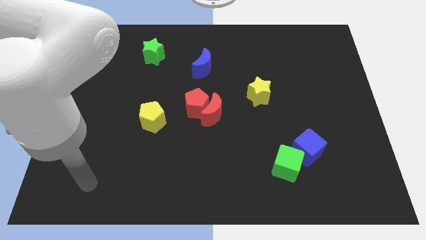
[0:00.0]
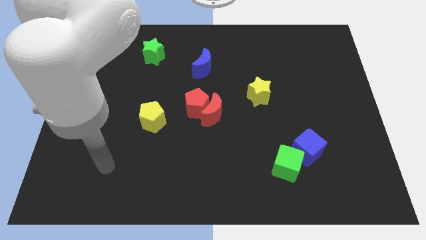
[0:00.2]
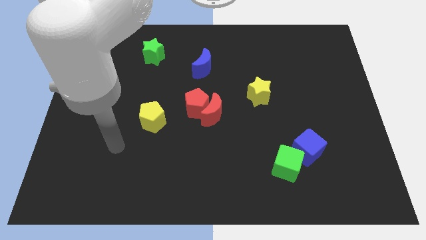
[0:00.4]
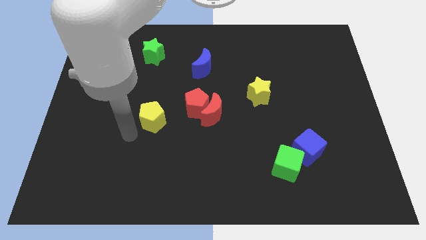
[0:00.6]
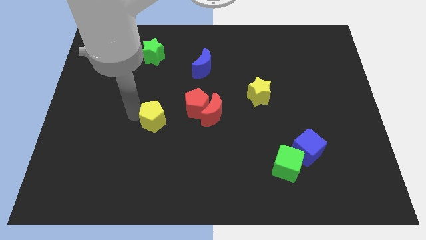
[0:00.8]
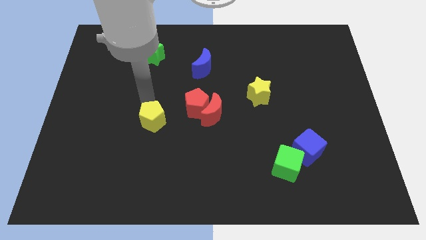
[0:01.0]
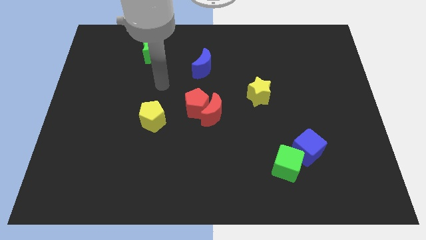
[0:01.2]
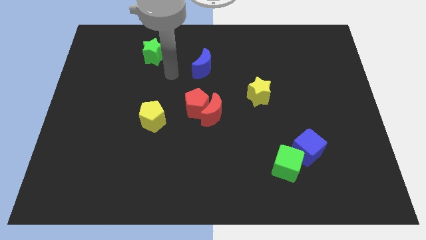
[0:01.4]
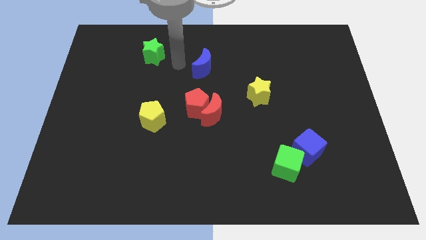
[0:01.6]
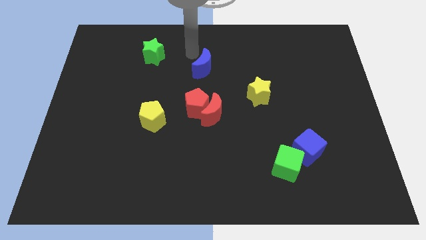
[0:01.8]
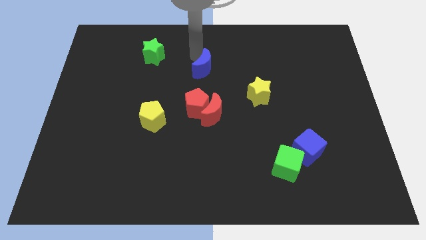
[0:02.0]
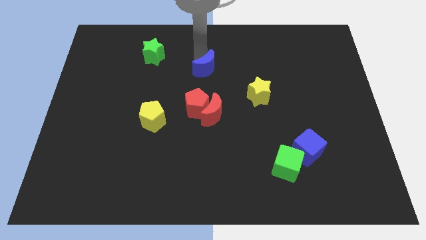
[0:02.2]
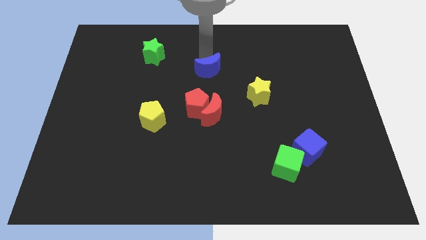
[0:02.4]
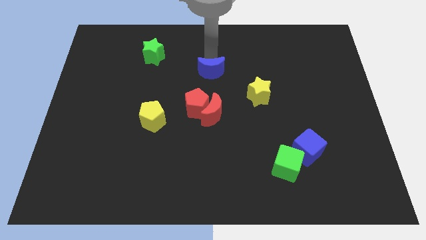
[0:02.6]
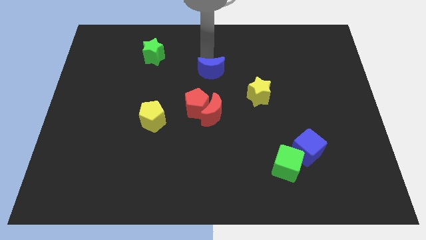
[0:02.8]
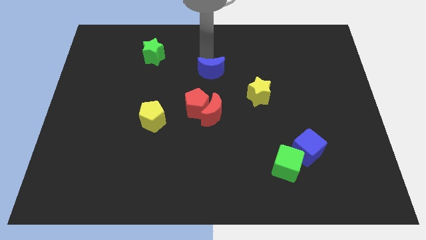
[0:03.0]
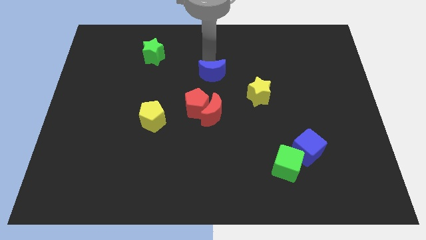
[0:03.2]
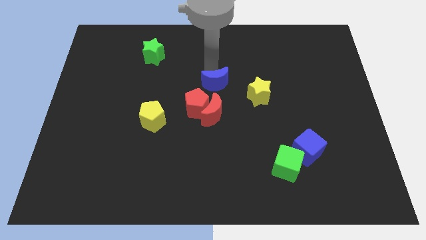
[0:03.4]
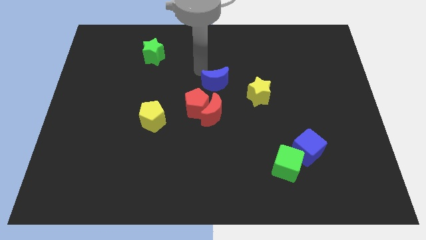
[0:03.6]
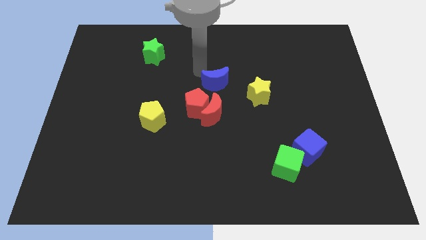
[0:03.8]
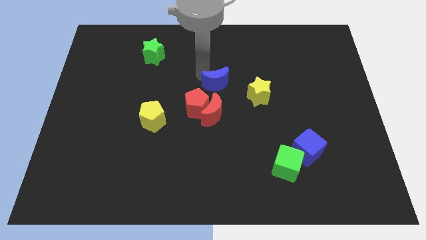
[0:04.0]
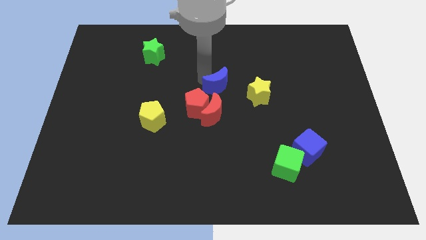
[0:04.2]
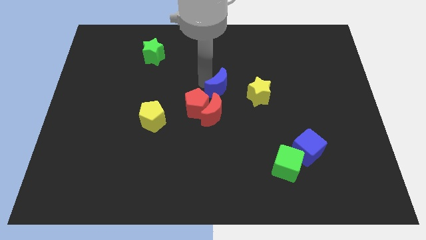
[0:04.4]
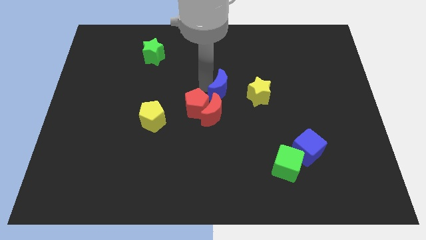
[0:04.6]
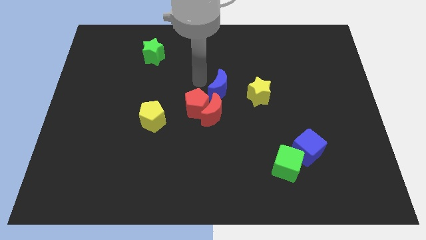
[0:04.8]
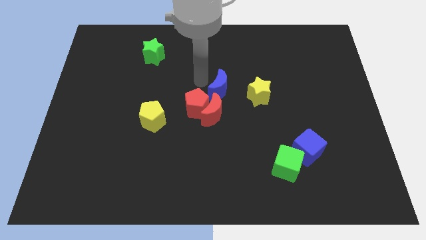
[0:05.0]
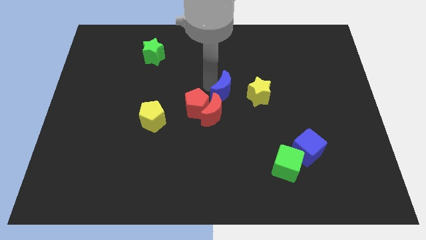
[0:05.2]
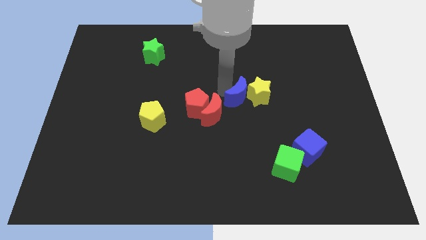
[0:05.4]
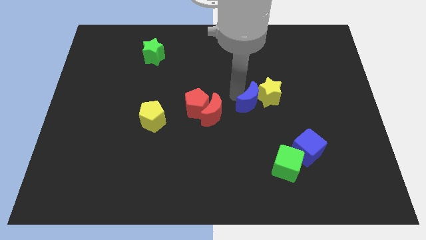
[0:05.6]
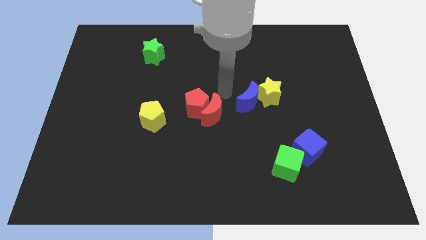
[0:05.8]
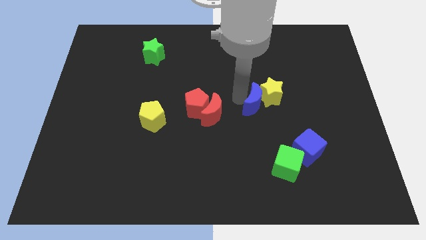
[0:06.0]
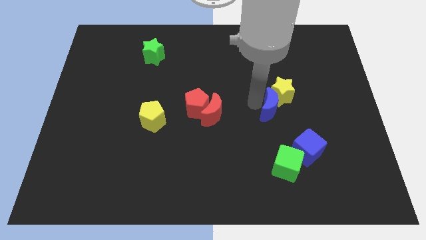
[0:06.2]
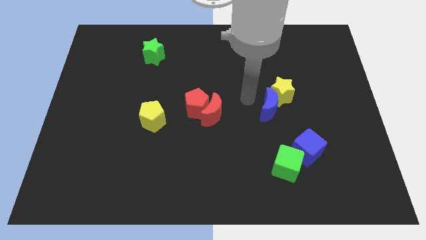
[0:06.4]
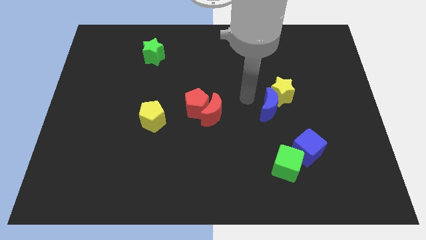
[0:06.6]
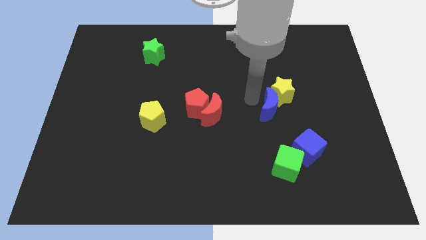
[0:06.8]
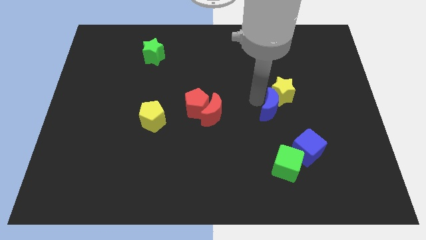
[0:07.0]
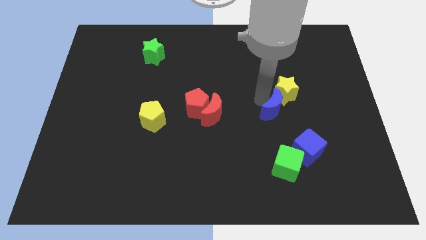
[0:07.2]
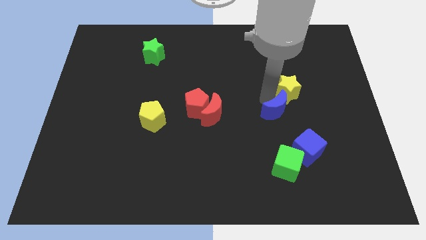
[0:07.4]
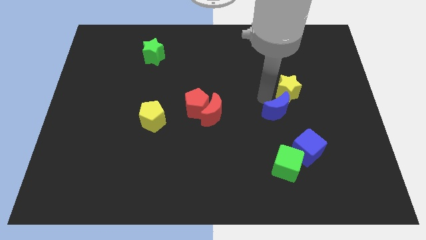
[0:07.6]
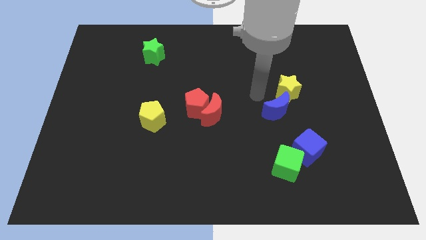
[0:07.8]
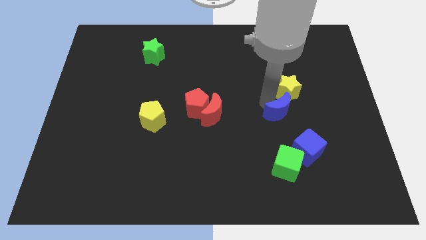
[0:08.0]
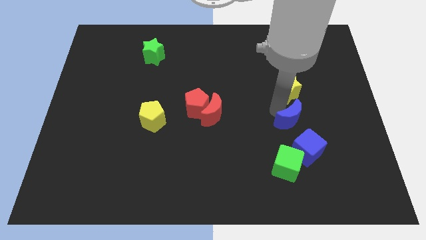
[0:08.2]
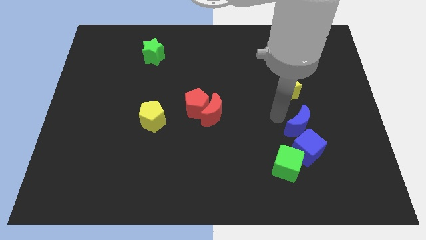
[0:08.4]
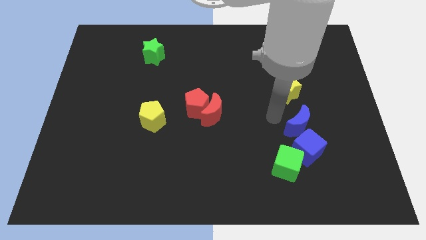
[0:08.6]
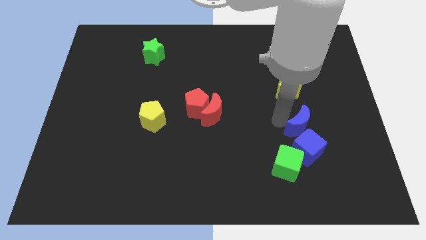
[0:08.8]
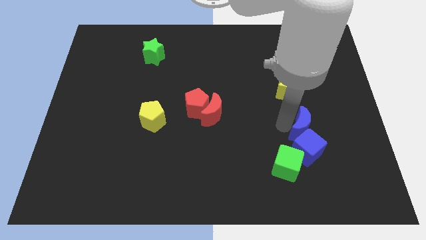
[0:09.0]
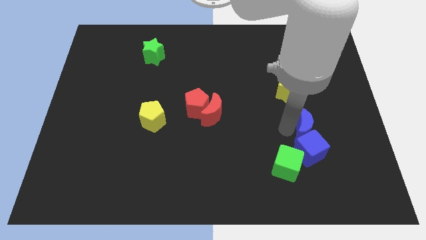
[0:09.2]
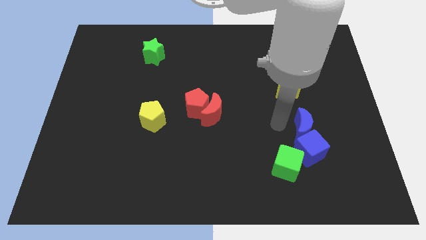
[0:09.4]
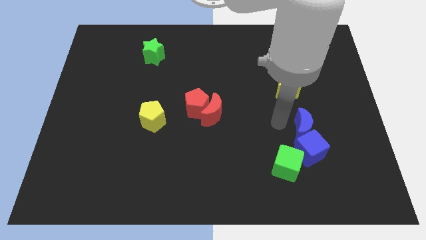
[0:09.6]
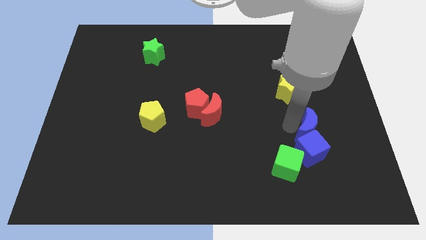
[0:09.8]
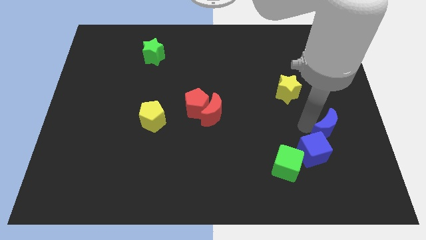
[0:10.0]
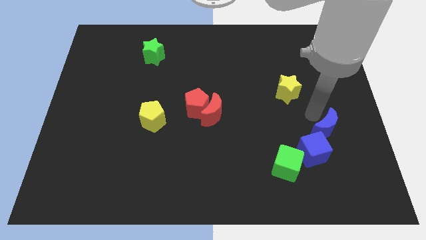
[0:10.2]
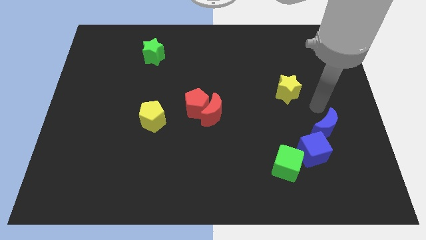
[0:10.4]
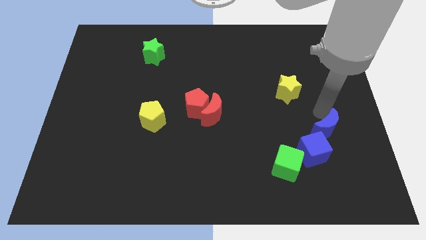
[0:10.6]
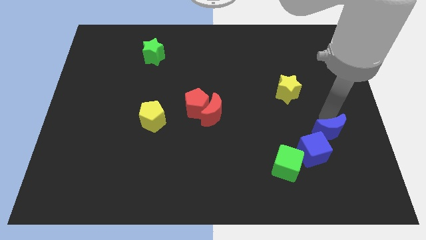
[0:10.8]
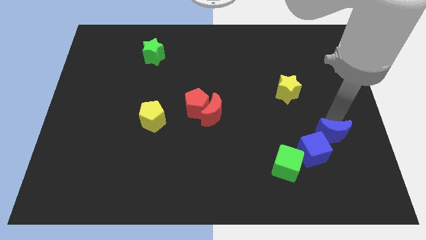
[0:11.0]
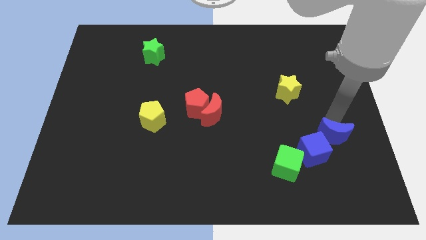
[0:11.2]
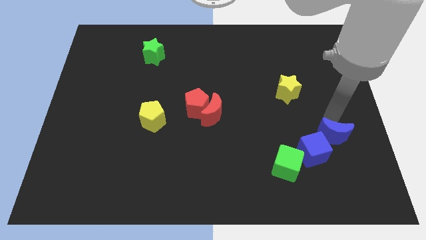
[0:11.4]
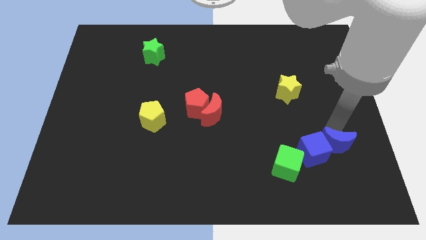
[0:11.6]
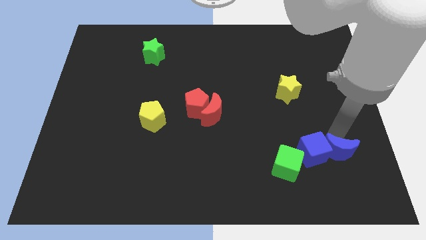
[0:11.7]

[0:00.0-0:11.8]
put the blue moon right of the green cube

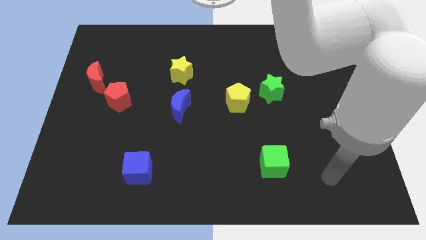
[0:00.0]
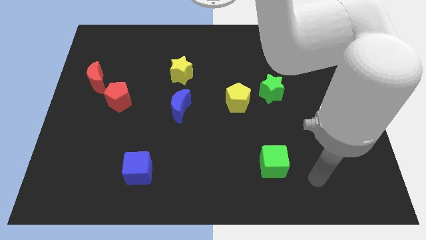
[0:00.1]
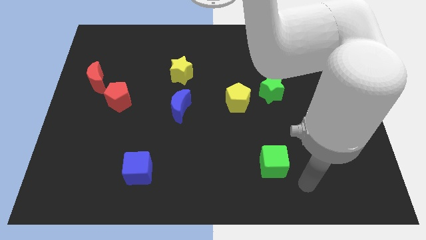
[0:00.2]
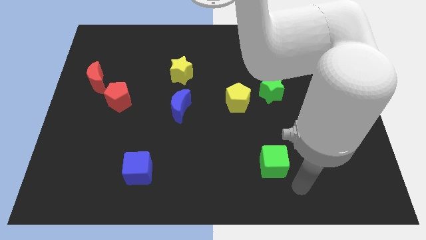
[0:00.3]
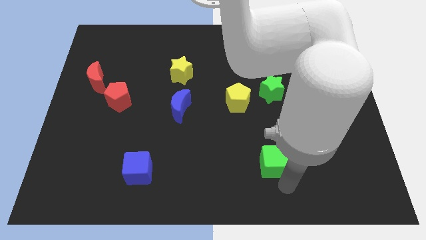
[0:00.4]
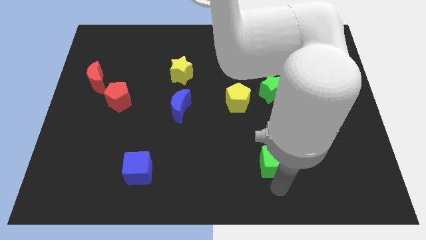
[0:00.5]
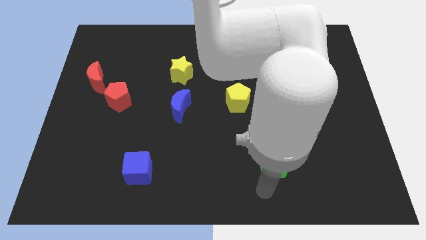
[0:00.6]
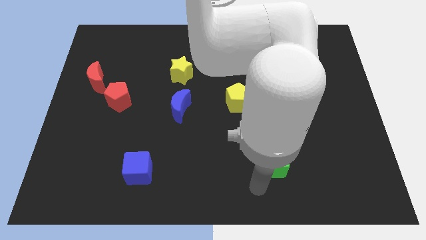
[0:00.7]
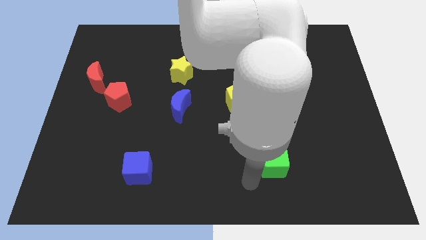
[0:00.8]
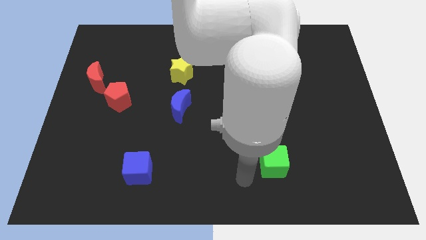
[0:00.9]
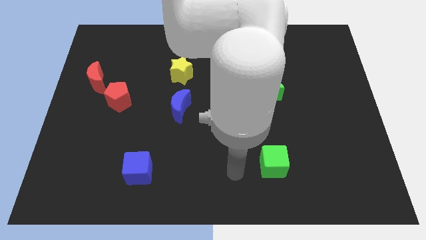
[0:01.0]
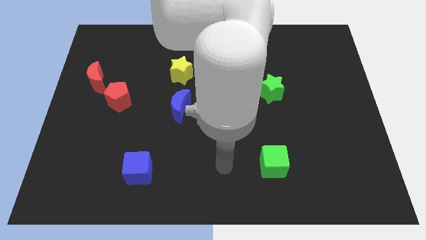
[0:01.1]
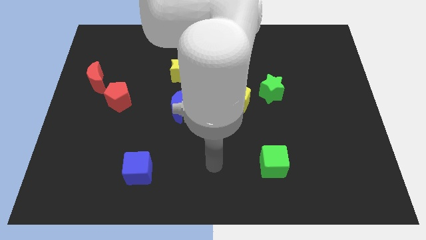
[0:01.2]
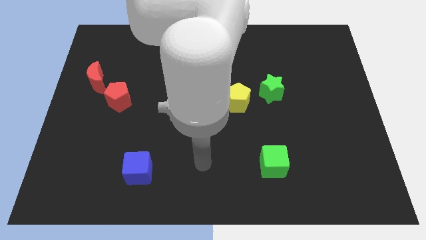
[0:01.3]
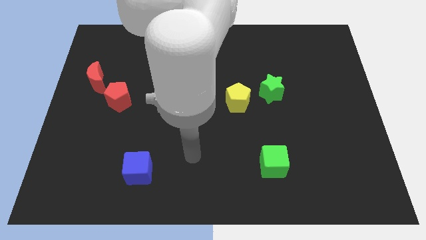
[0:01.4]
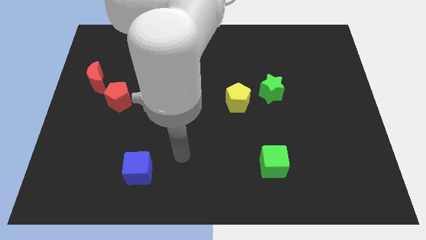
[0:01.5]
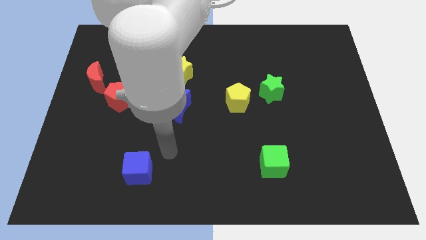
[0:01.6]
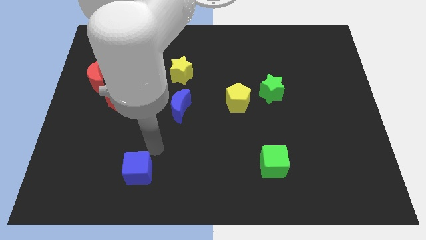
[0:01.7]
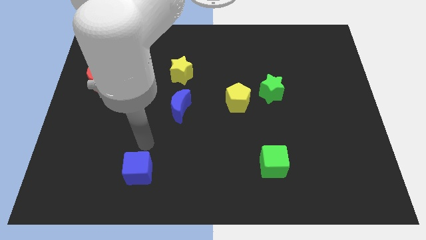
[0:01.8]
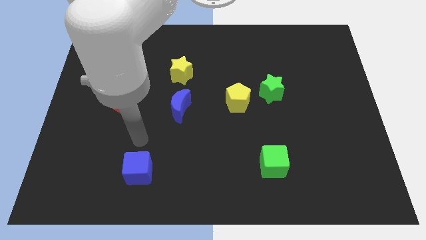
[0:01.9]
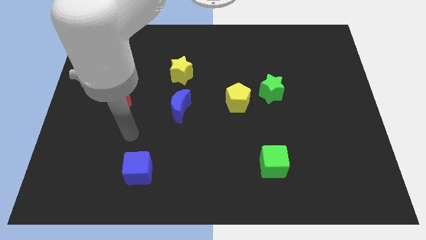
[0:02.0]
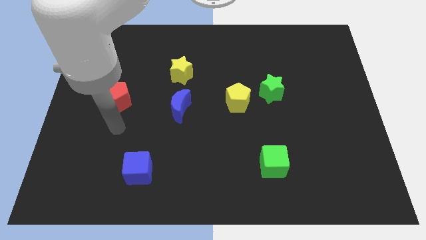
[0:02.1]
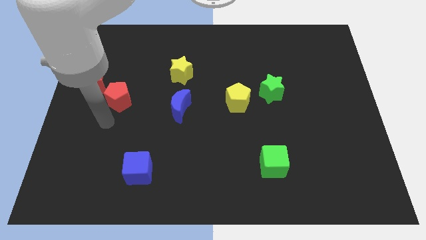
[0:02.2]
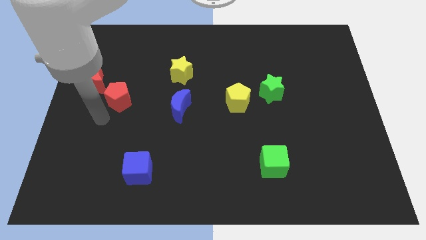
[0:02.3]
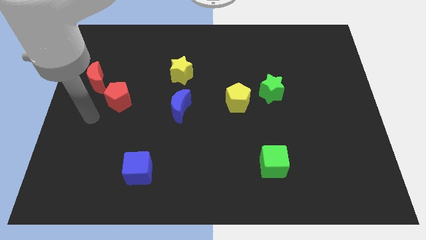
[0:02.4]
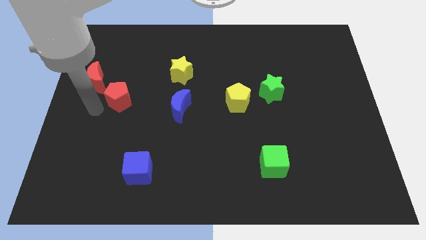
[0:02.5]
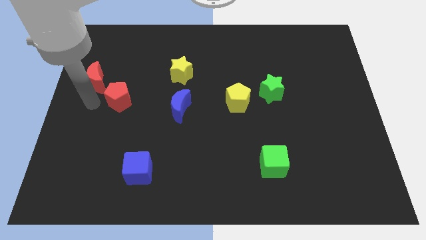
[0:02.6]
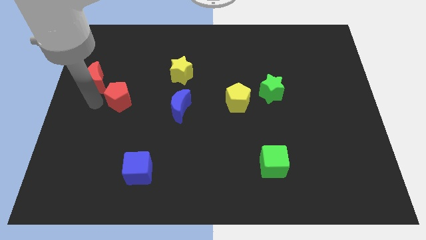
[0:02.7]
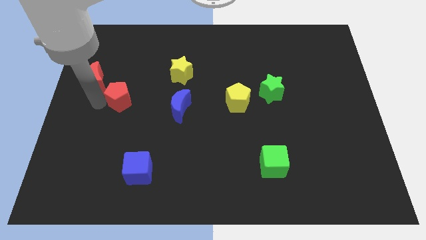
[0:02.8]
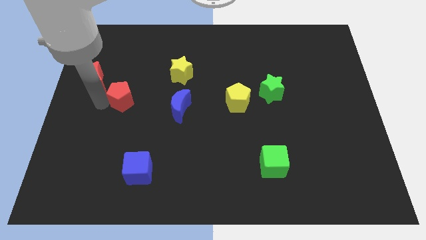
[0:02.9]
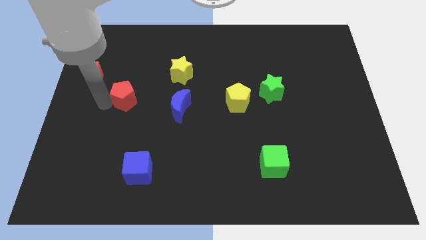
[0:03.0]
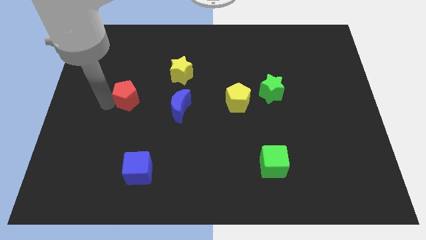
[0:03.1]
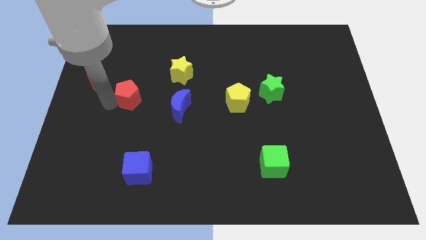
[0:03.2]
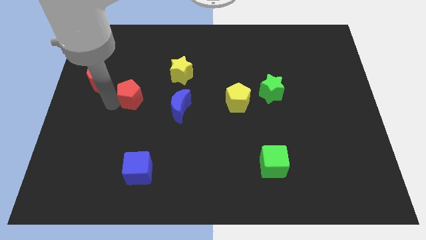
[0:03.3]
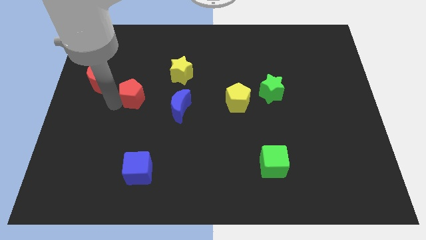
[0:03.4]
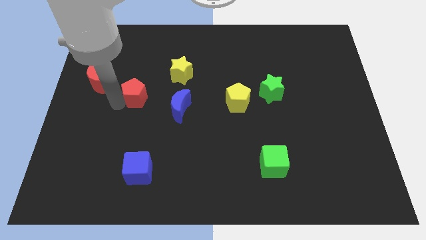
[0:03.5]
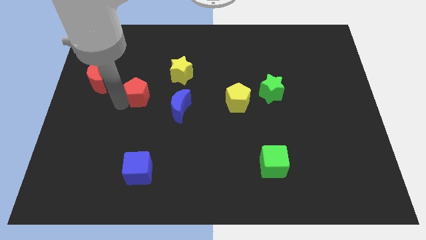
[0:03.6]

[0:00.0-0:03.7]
push the red pentagon to the bottom left of the yellow star
